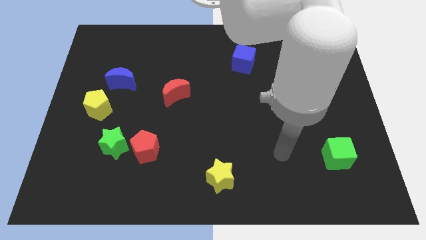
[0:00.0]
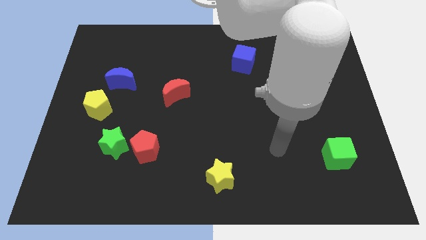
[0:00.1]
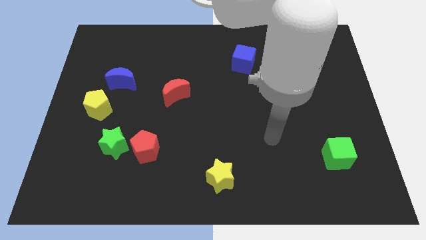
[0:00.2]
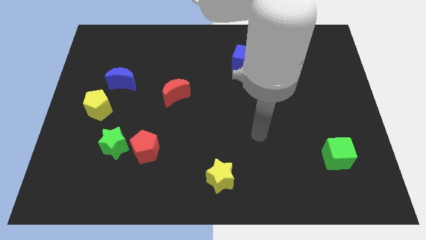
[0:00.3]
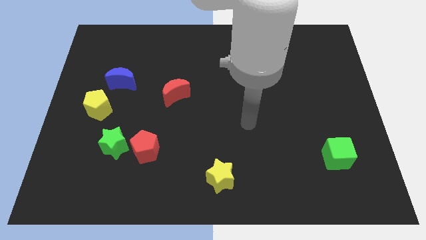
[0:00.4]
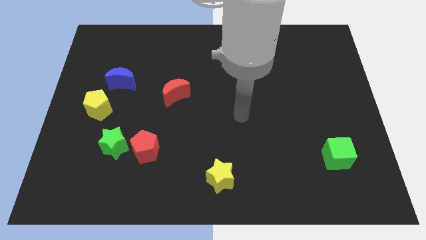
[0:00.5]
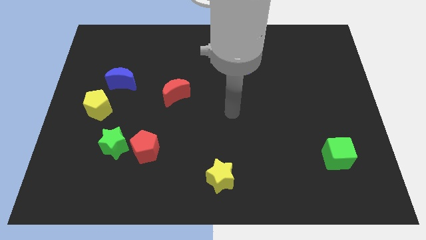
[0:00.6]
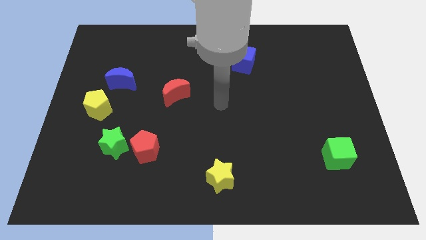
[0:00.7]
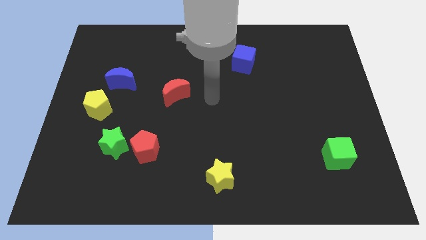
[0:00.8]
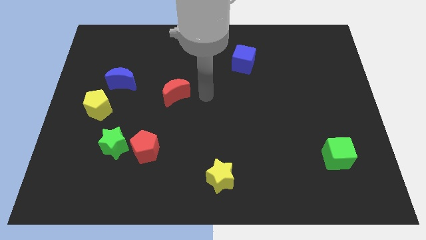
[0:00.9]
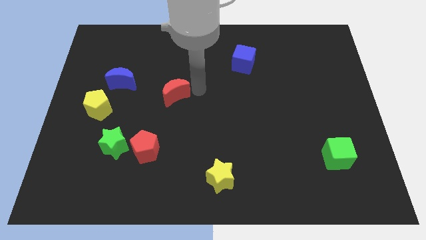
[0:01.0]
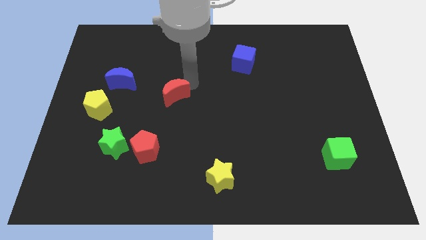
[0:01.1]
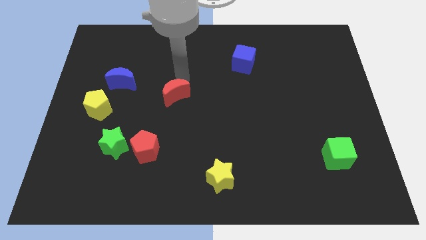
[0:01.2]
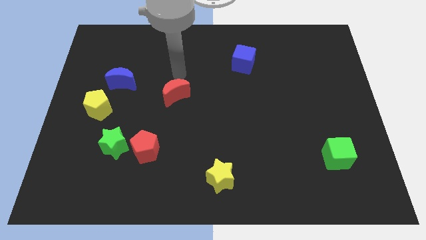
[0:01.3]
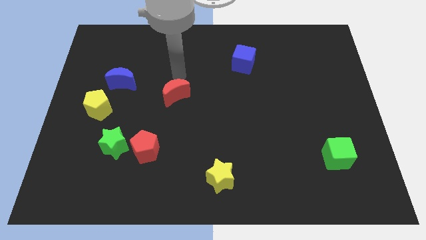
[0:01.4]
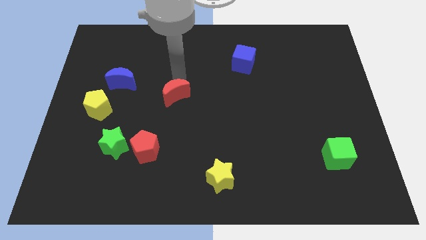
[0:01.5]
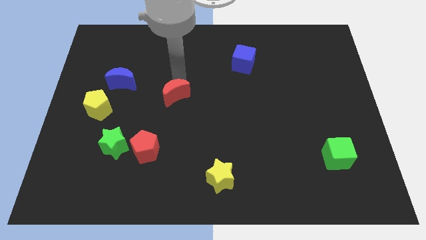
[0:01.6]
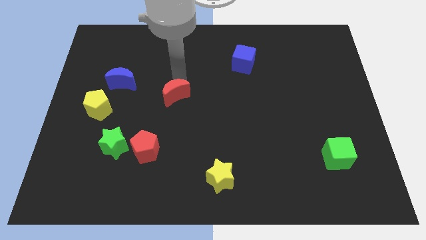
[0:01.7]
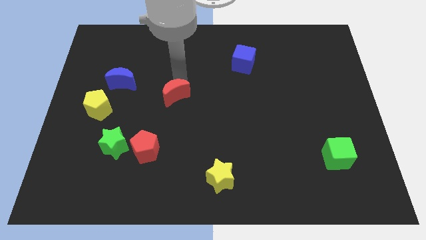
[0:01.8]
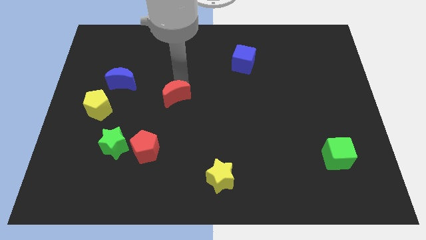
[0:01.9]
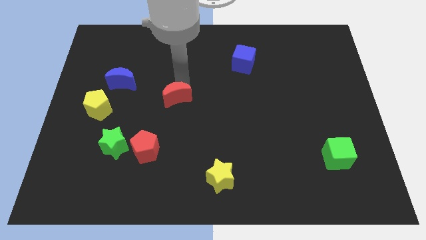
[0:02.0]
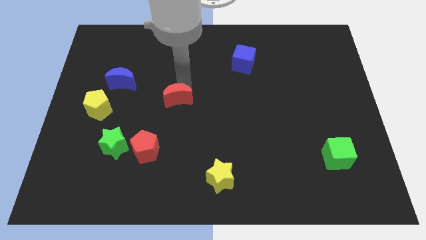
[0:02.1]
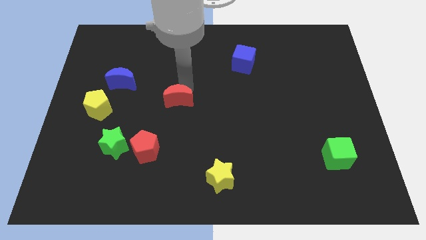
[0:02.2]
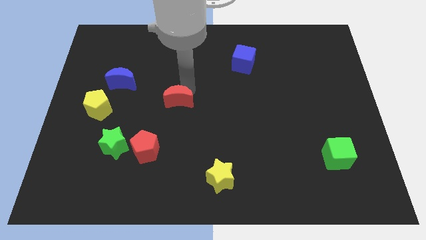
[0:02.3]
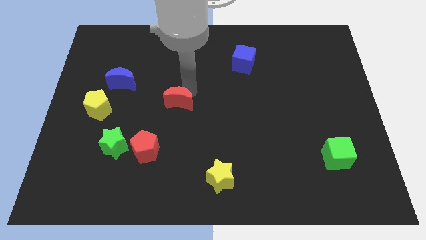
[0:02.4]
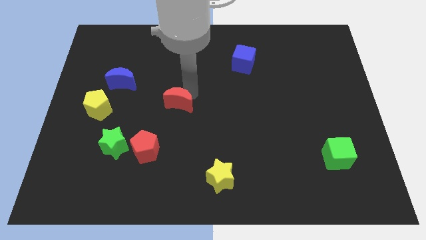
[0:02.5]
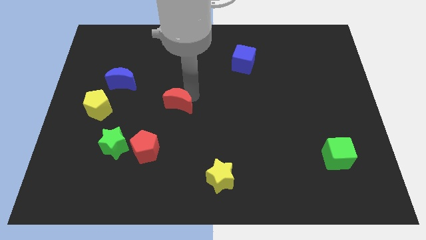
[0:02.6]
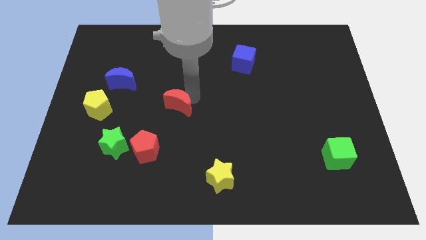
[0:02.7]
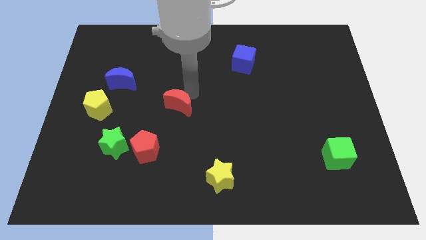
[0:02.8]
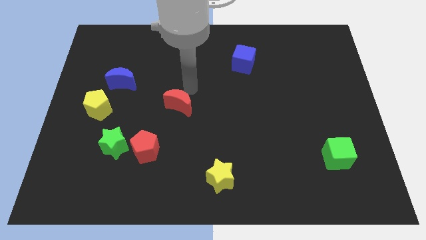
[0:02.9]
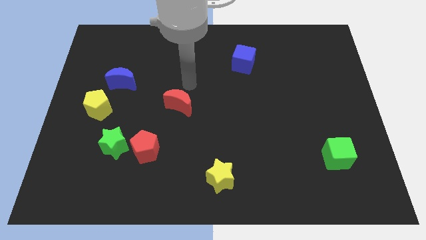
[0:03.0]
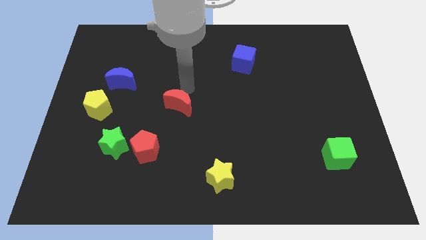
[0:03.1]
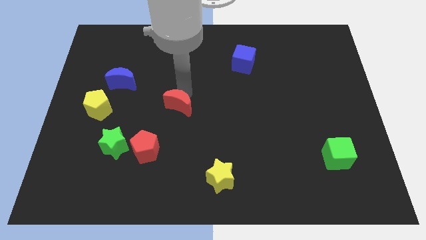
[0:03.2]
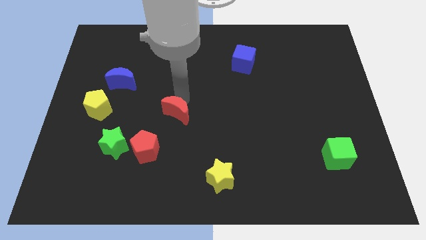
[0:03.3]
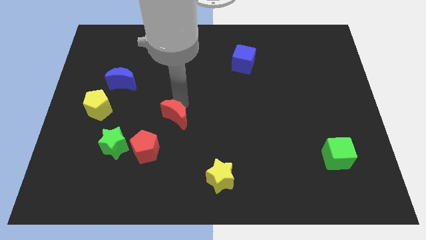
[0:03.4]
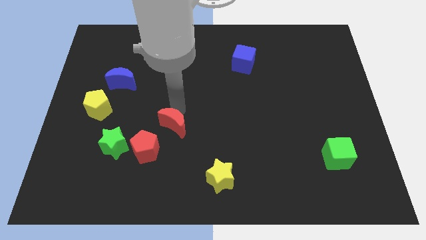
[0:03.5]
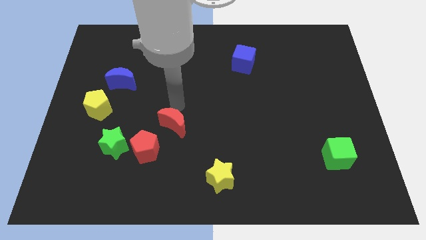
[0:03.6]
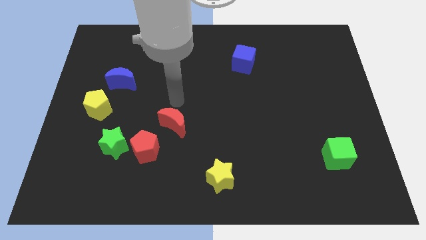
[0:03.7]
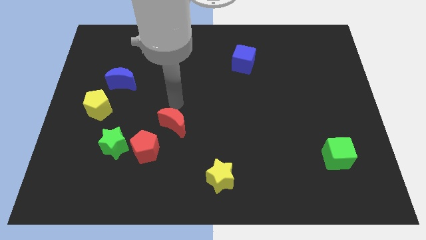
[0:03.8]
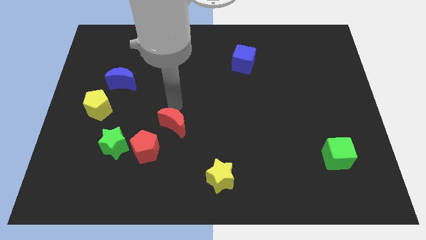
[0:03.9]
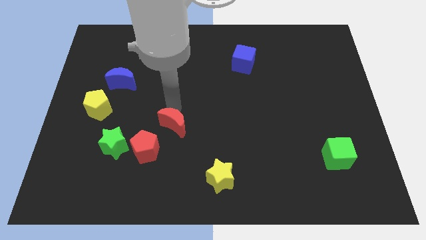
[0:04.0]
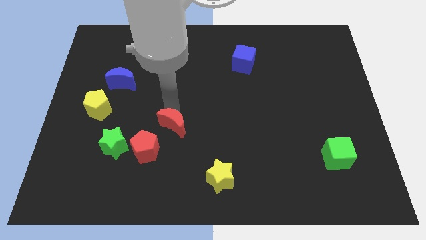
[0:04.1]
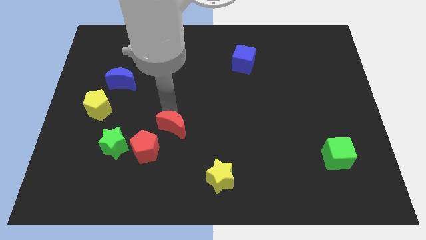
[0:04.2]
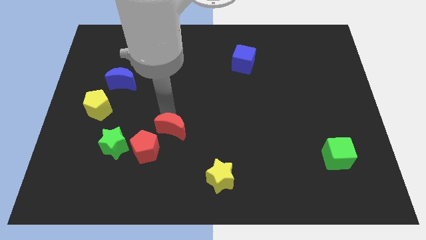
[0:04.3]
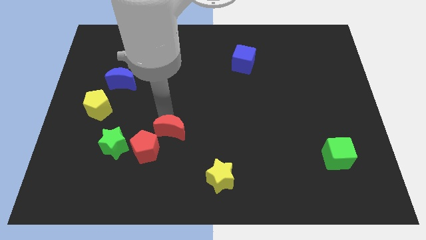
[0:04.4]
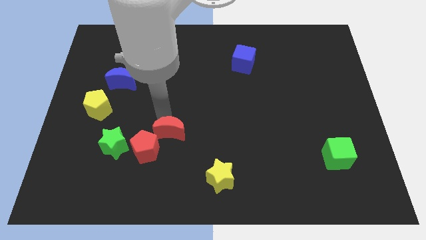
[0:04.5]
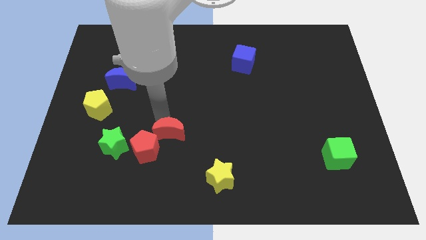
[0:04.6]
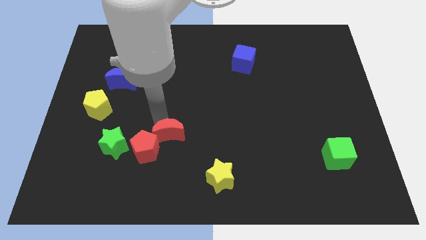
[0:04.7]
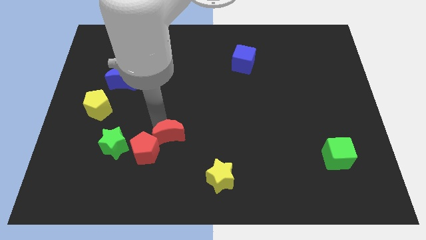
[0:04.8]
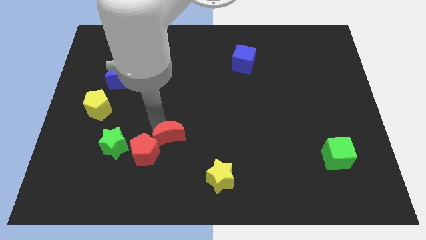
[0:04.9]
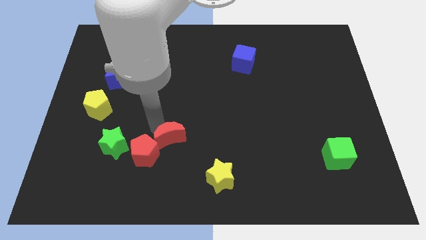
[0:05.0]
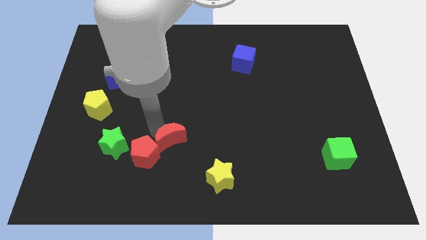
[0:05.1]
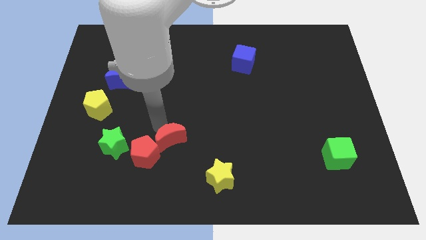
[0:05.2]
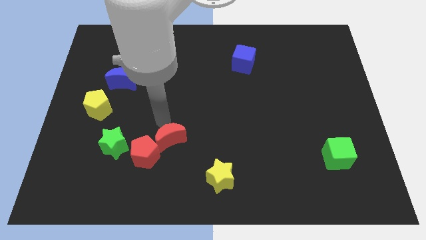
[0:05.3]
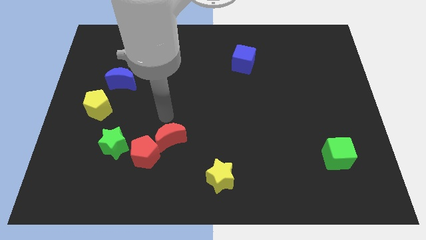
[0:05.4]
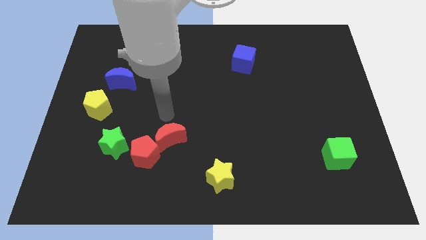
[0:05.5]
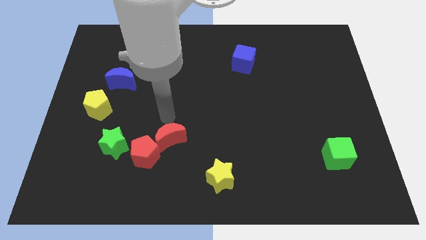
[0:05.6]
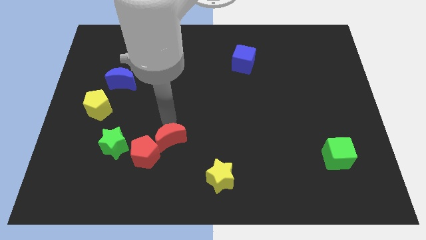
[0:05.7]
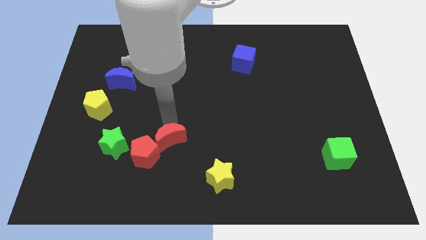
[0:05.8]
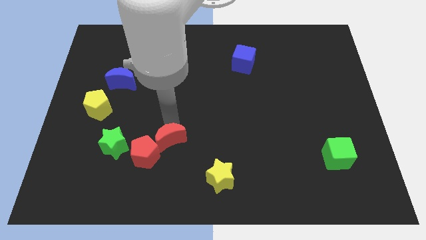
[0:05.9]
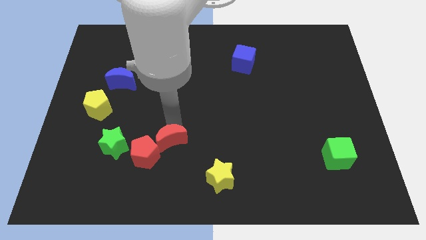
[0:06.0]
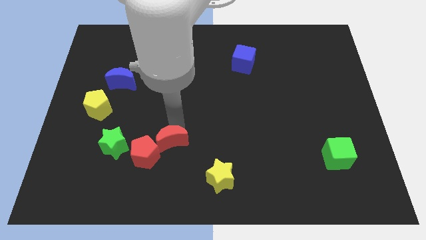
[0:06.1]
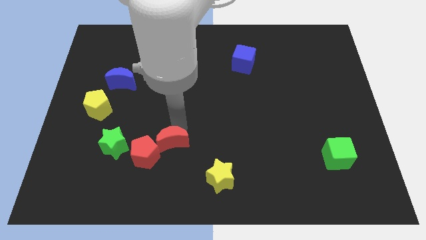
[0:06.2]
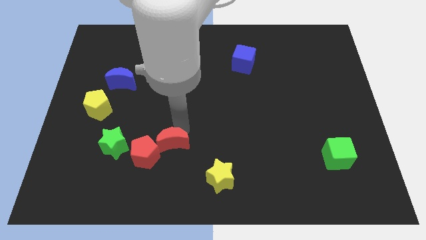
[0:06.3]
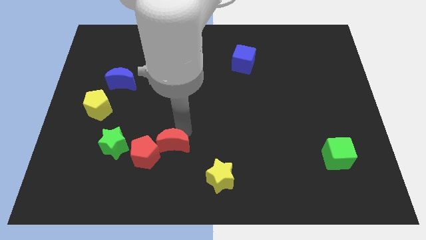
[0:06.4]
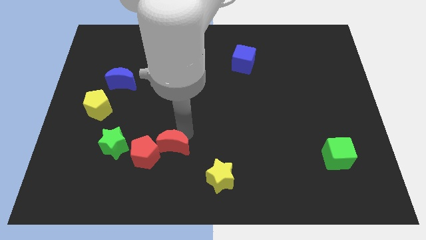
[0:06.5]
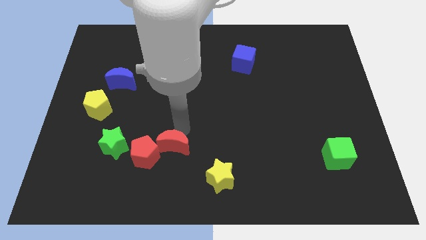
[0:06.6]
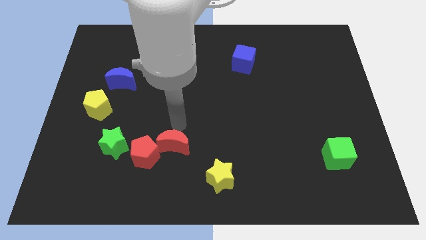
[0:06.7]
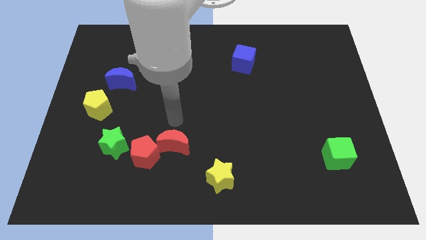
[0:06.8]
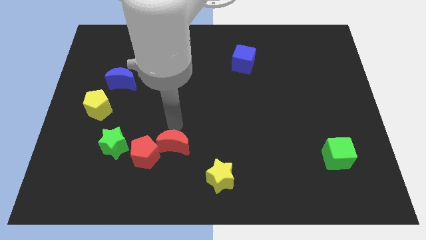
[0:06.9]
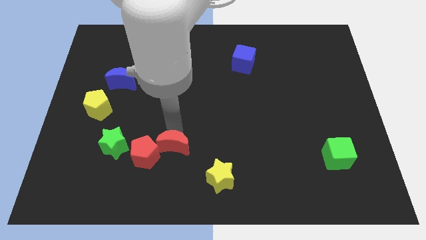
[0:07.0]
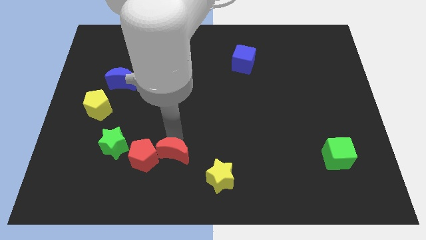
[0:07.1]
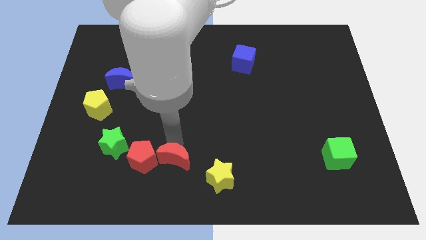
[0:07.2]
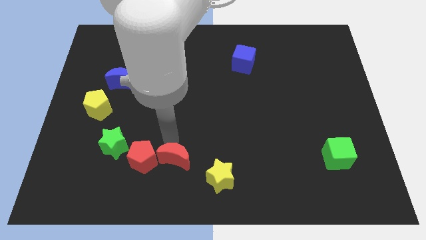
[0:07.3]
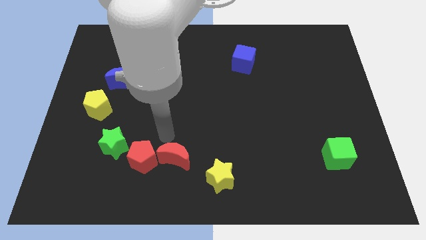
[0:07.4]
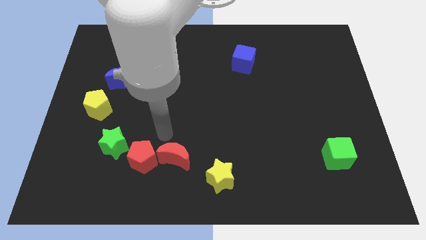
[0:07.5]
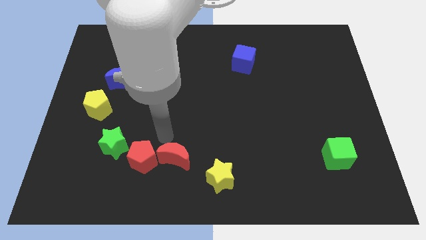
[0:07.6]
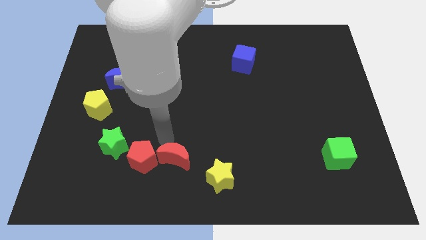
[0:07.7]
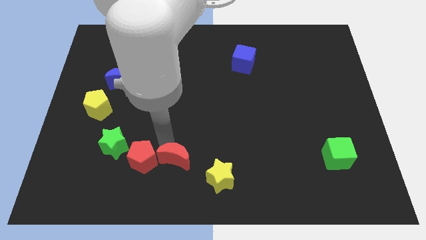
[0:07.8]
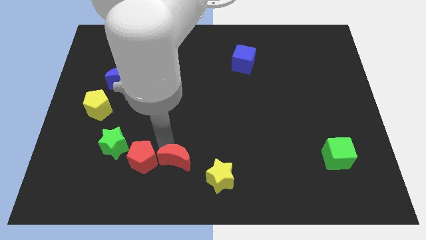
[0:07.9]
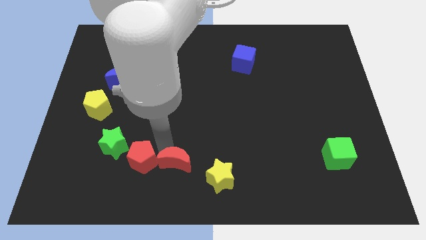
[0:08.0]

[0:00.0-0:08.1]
move the red moon to the bottom side
